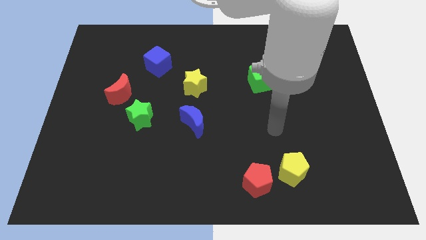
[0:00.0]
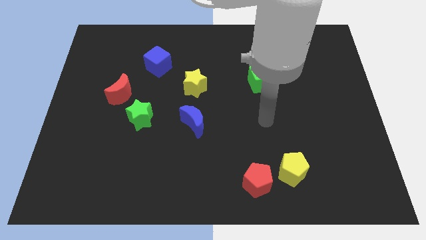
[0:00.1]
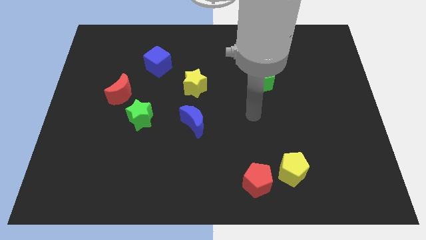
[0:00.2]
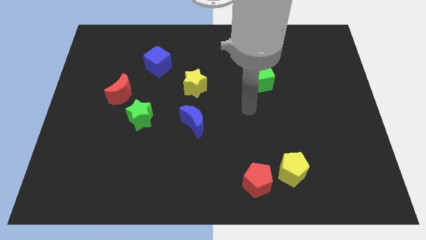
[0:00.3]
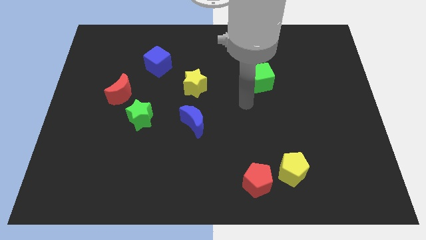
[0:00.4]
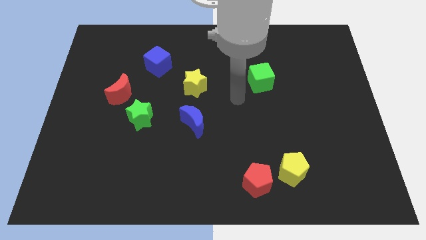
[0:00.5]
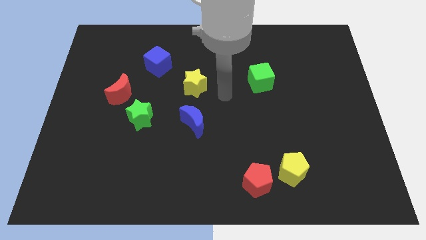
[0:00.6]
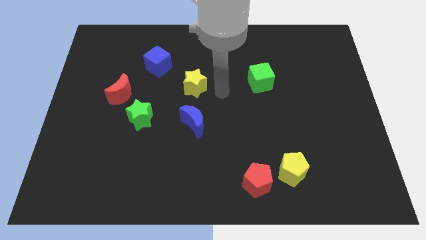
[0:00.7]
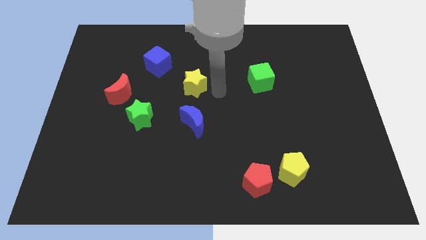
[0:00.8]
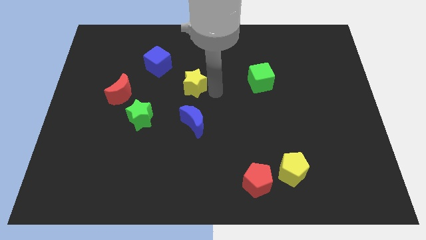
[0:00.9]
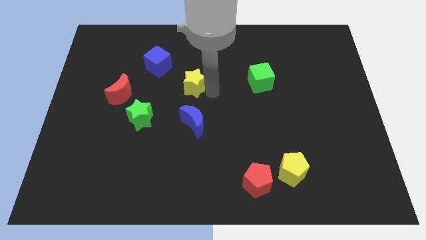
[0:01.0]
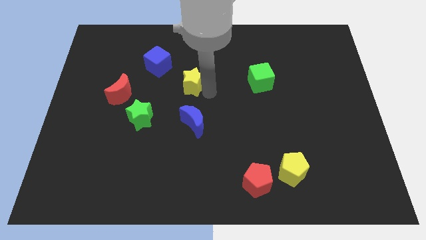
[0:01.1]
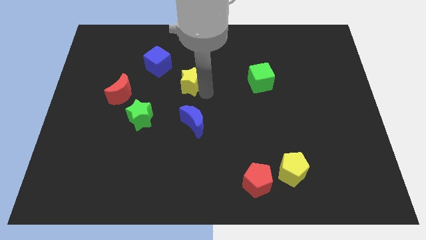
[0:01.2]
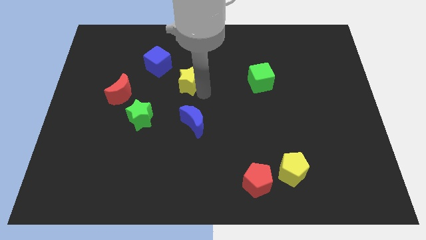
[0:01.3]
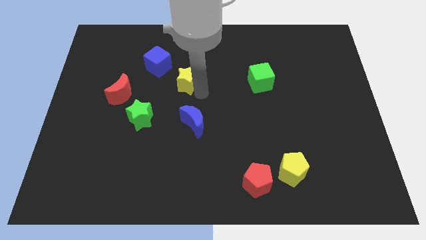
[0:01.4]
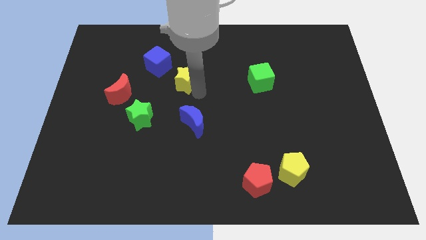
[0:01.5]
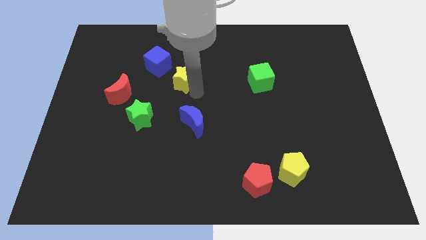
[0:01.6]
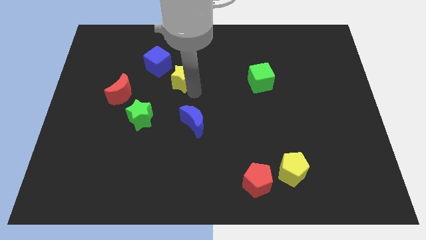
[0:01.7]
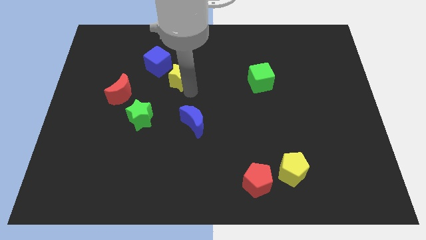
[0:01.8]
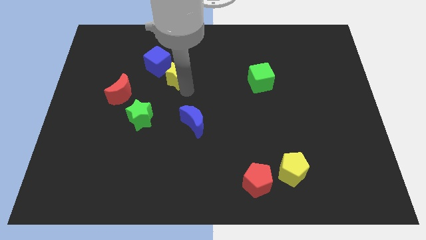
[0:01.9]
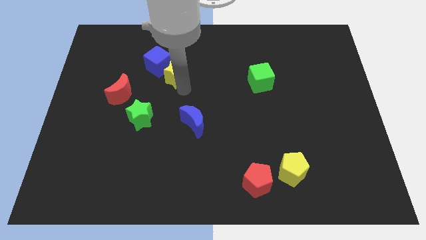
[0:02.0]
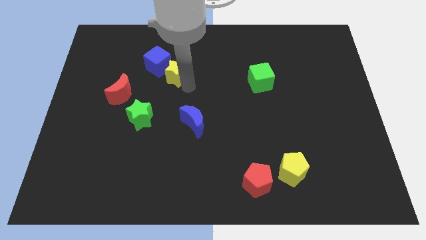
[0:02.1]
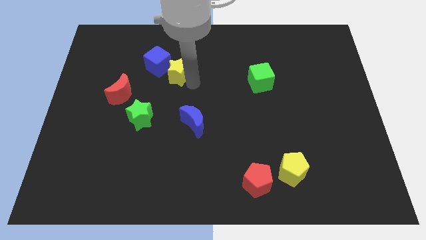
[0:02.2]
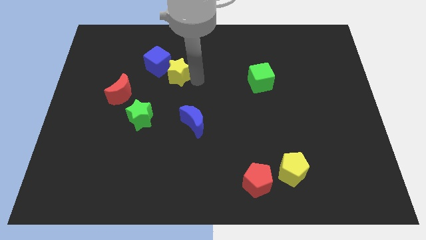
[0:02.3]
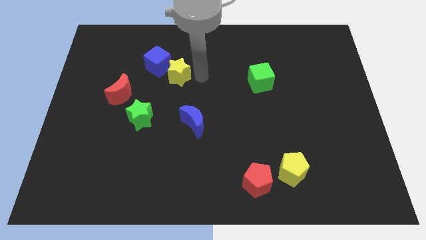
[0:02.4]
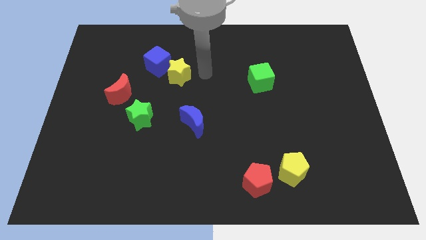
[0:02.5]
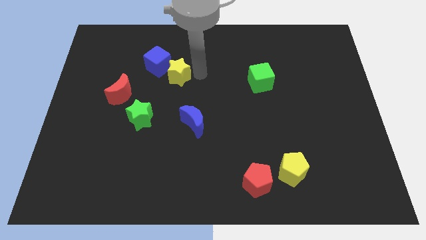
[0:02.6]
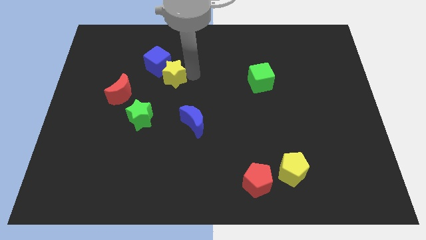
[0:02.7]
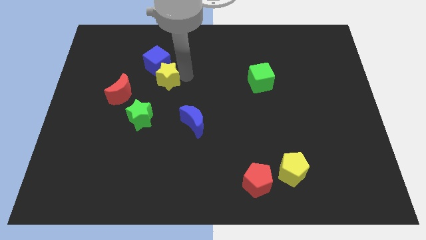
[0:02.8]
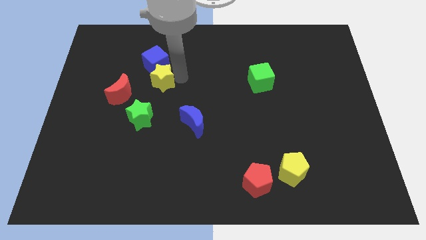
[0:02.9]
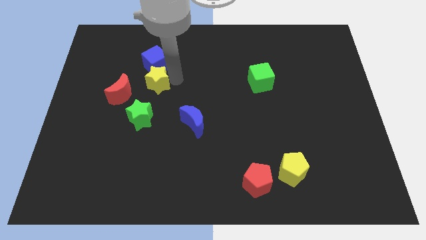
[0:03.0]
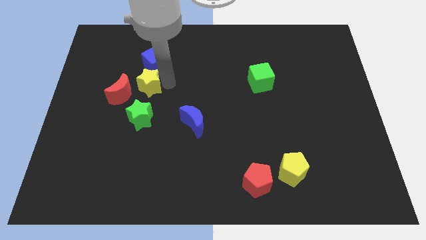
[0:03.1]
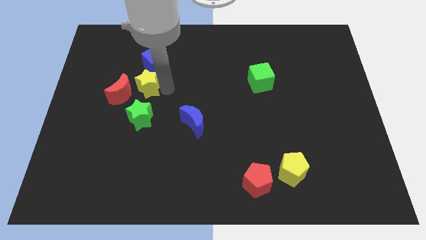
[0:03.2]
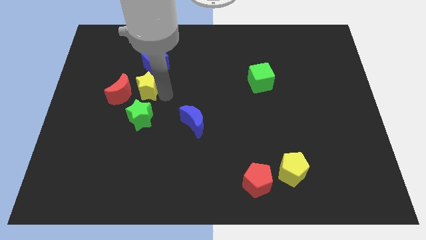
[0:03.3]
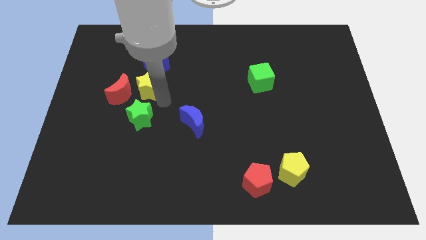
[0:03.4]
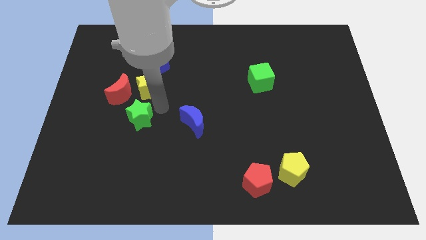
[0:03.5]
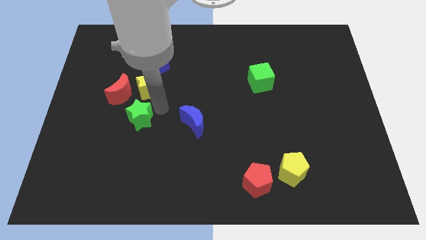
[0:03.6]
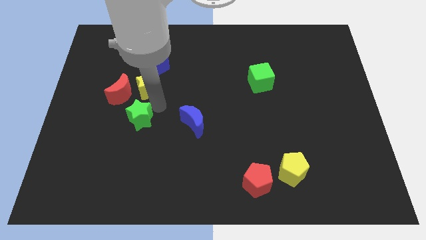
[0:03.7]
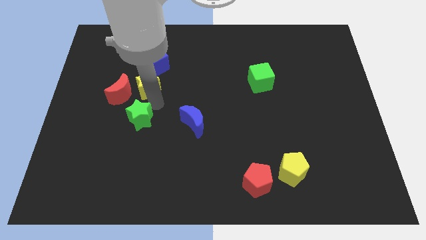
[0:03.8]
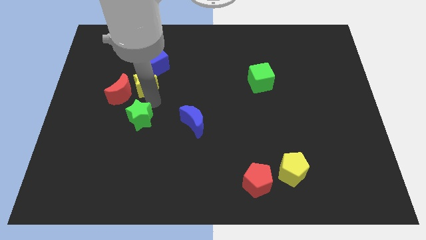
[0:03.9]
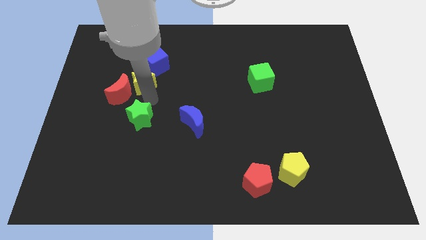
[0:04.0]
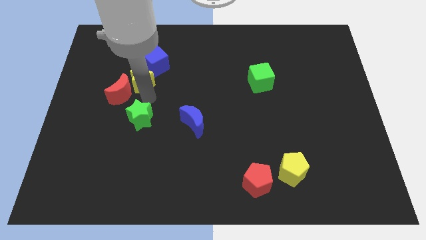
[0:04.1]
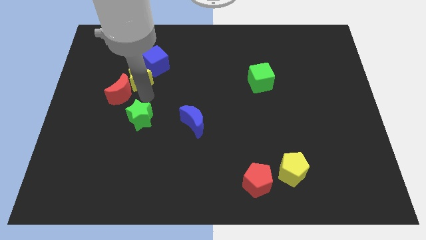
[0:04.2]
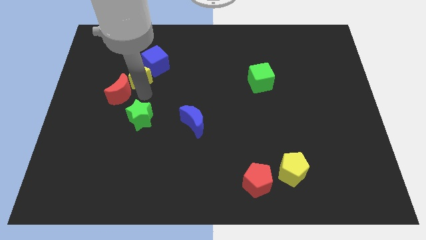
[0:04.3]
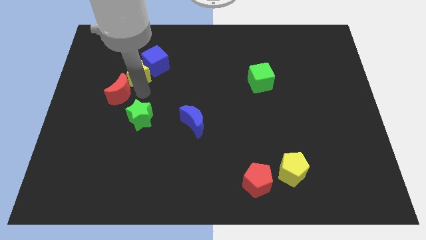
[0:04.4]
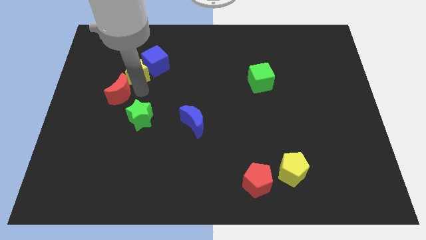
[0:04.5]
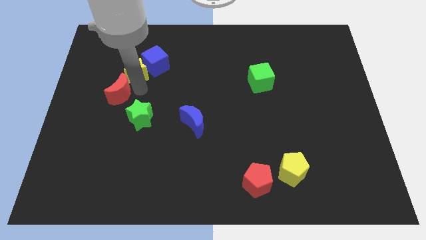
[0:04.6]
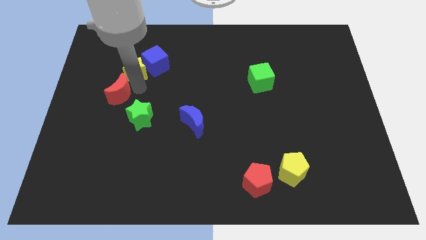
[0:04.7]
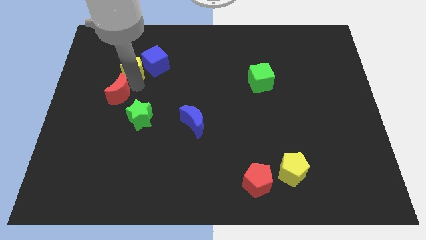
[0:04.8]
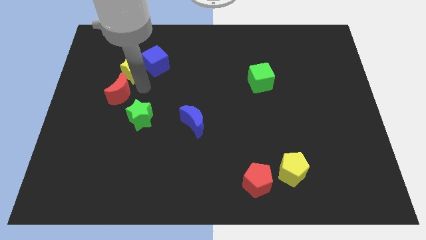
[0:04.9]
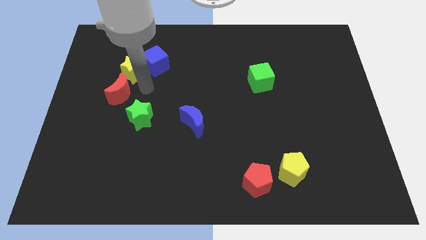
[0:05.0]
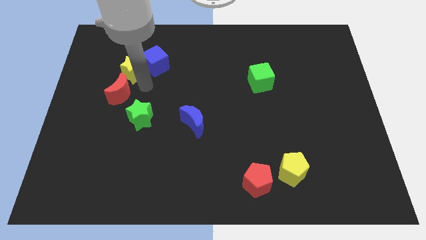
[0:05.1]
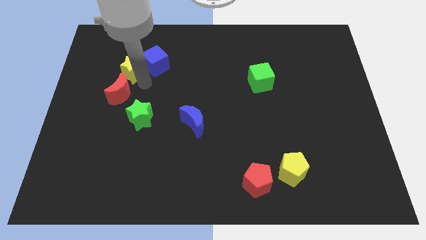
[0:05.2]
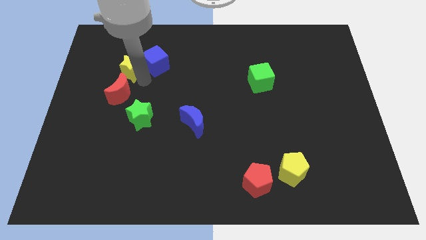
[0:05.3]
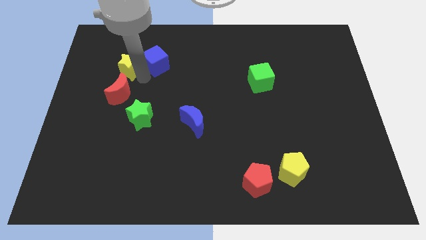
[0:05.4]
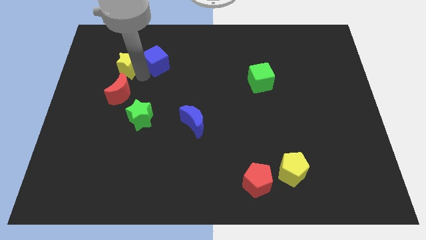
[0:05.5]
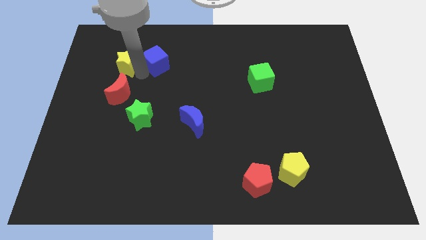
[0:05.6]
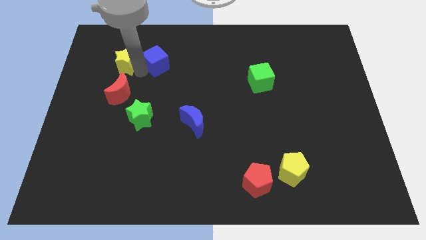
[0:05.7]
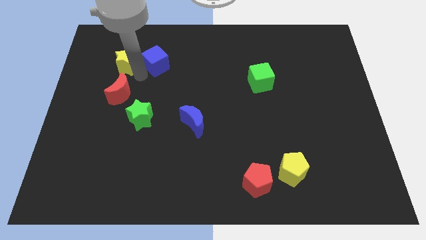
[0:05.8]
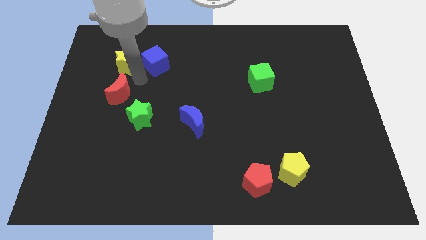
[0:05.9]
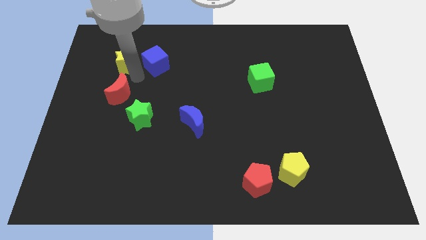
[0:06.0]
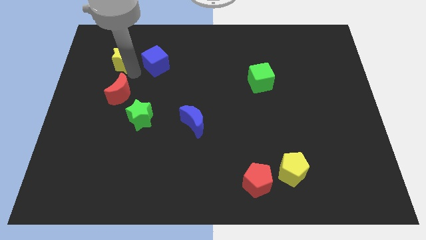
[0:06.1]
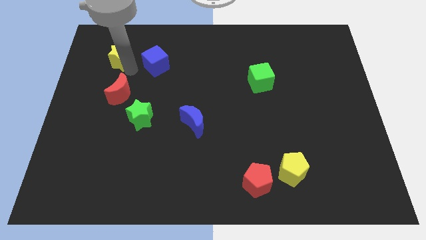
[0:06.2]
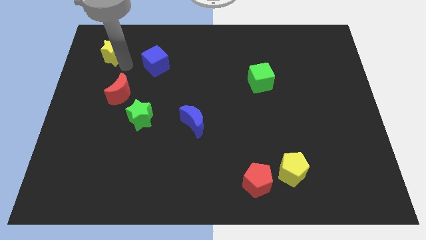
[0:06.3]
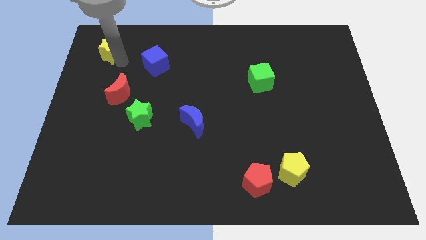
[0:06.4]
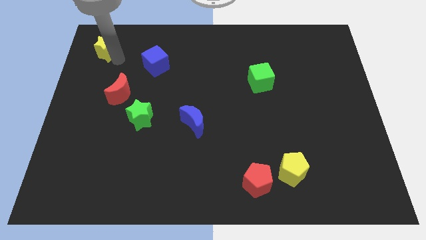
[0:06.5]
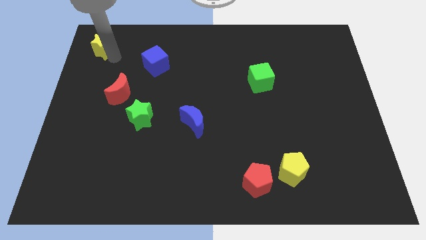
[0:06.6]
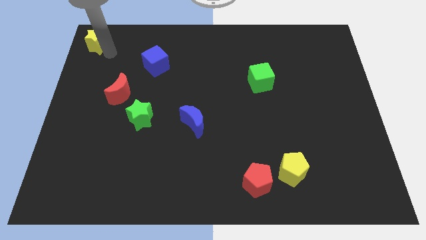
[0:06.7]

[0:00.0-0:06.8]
move the yellow star to the top left corner
